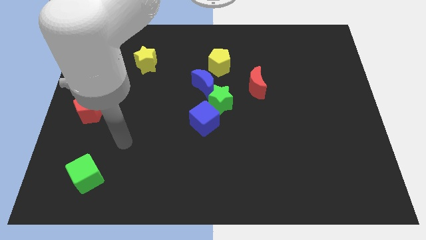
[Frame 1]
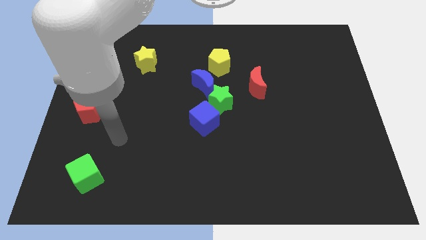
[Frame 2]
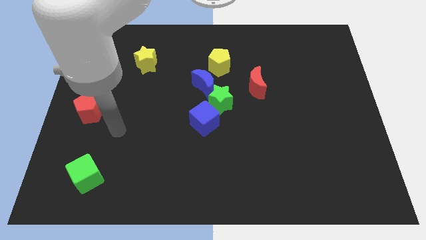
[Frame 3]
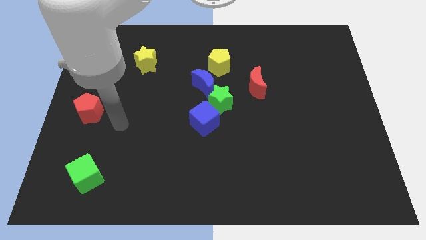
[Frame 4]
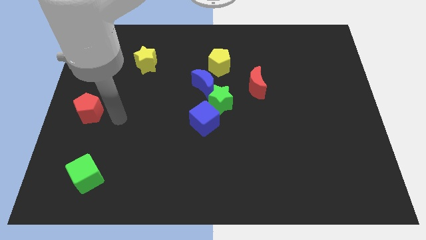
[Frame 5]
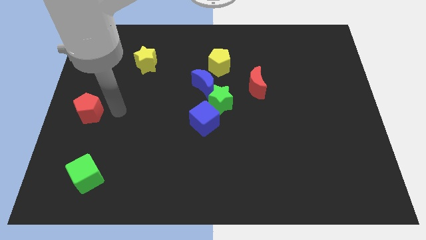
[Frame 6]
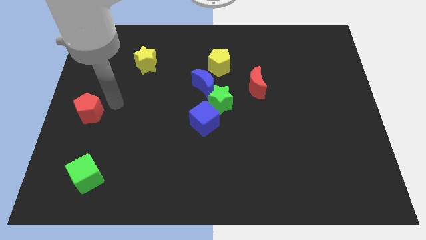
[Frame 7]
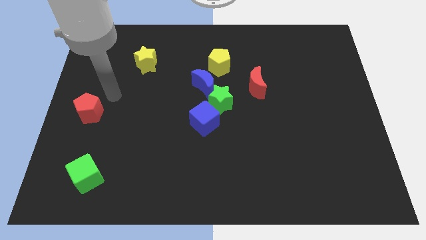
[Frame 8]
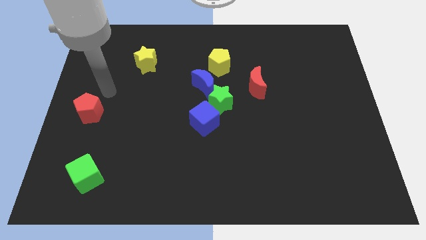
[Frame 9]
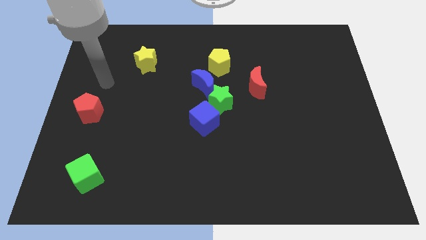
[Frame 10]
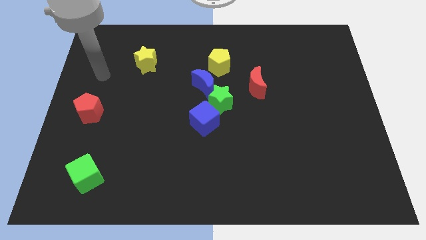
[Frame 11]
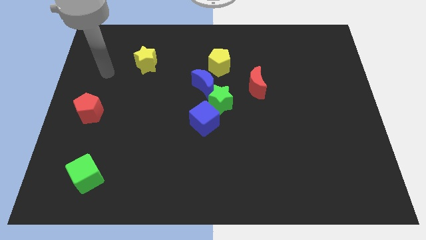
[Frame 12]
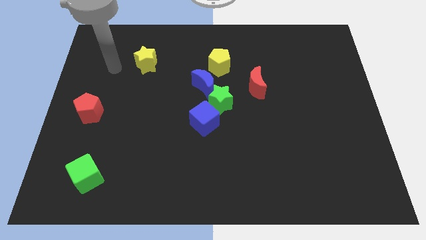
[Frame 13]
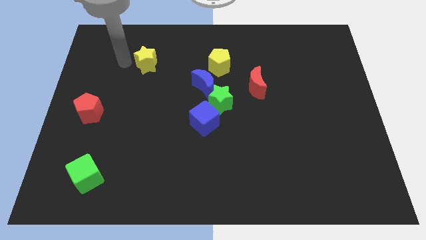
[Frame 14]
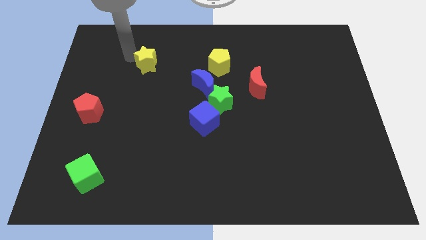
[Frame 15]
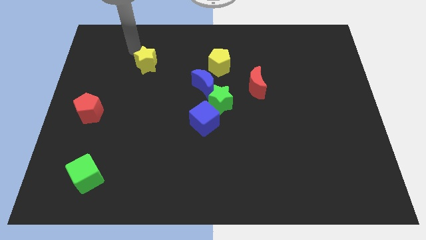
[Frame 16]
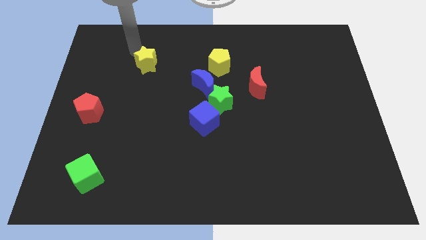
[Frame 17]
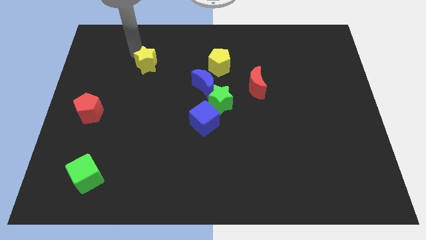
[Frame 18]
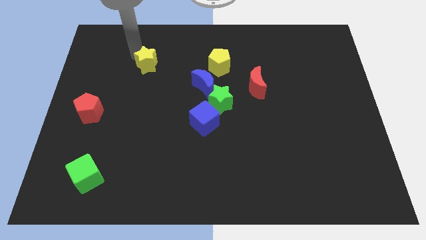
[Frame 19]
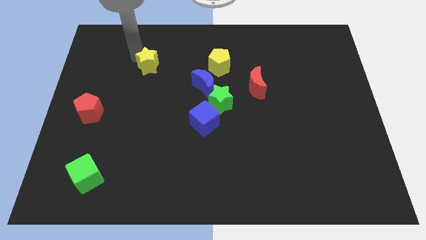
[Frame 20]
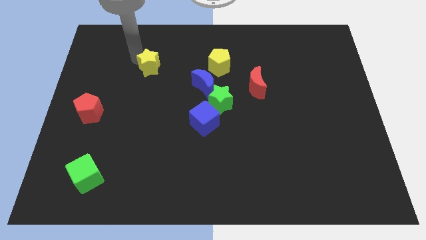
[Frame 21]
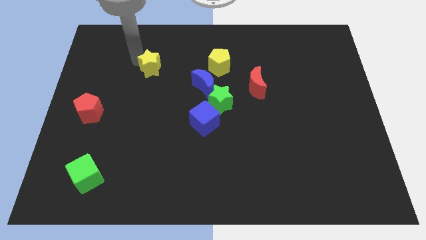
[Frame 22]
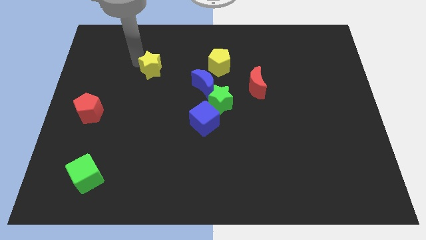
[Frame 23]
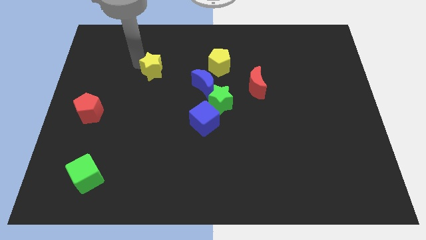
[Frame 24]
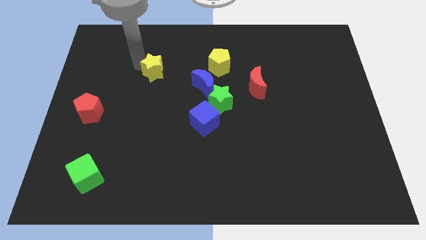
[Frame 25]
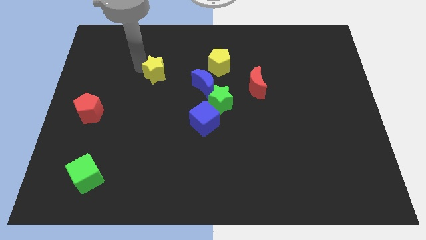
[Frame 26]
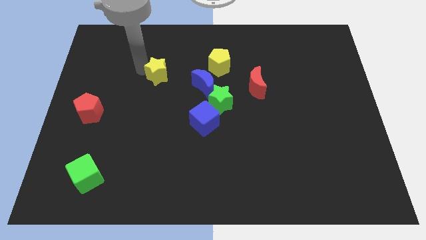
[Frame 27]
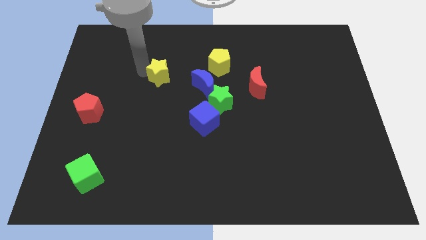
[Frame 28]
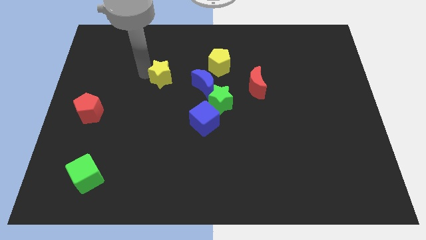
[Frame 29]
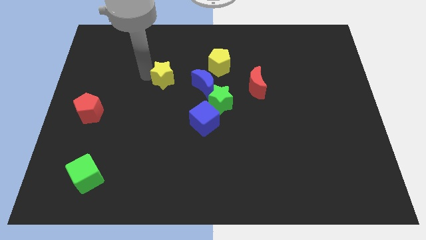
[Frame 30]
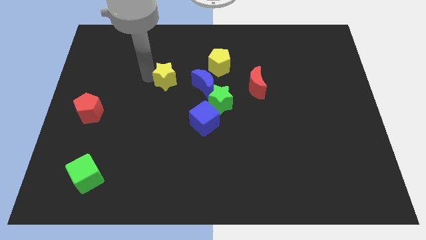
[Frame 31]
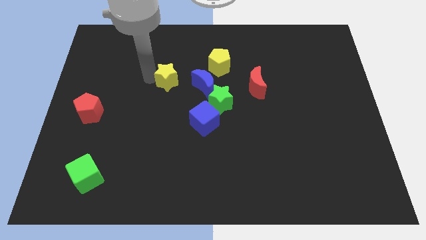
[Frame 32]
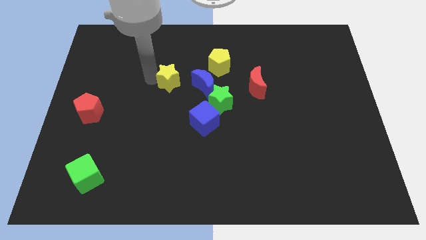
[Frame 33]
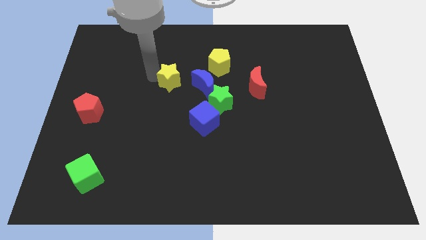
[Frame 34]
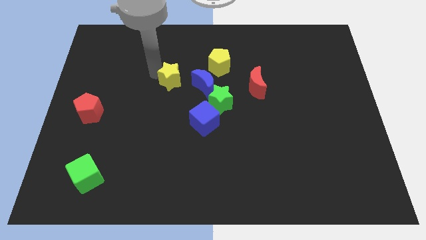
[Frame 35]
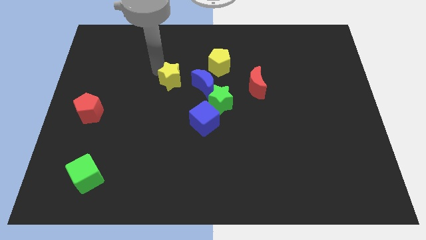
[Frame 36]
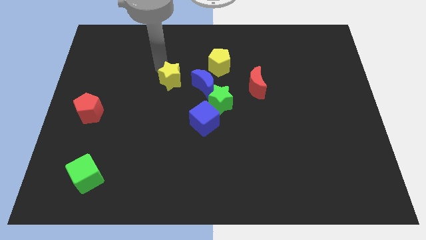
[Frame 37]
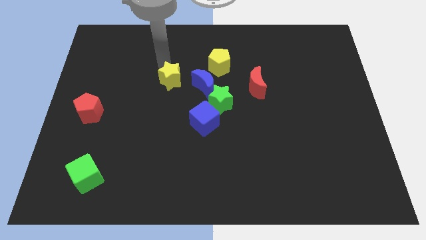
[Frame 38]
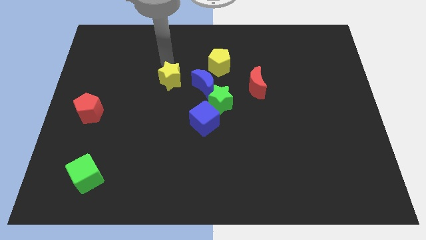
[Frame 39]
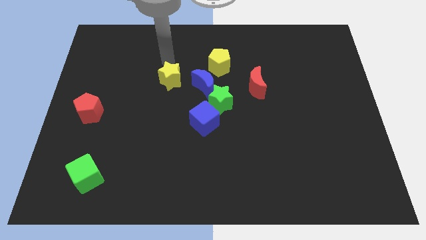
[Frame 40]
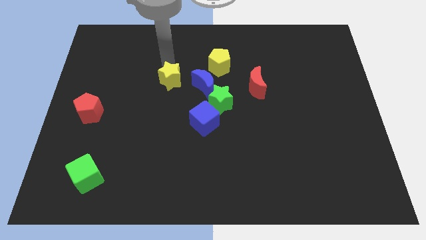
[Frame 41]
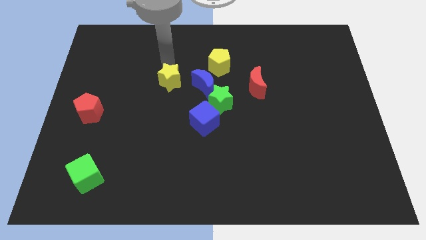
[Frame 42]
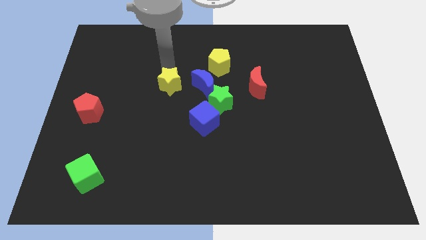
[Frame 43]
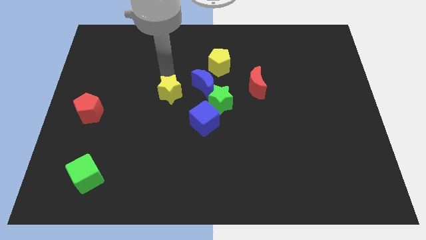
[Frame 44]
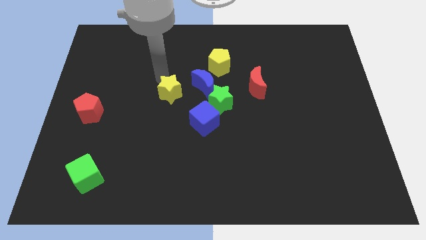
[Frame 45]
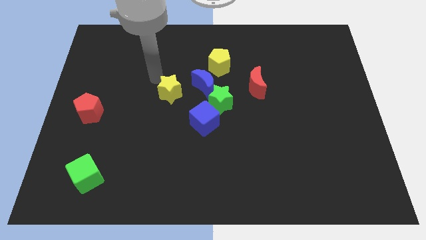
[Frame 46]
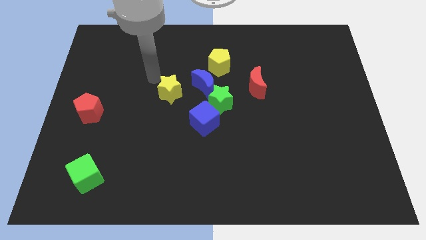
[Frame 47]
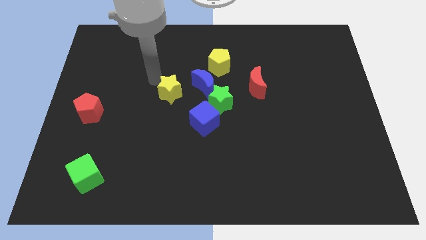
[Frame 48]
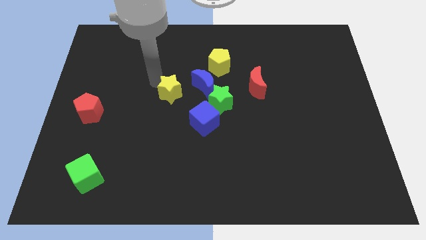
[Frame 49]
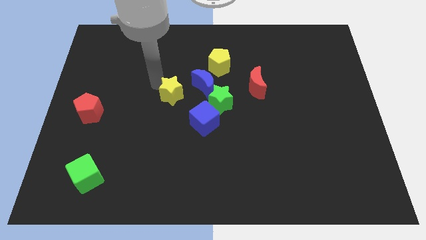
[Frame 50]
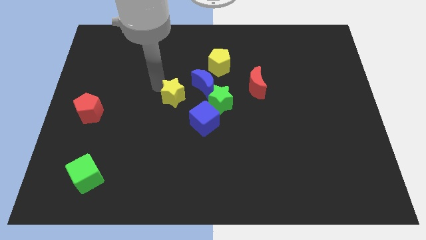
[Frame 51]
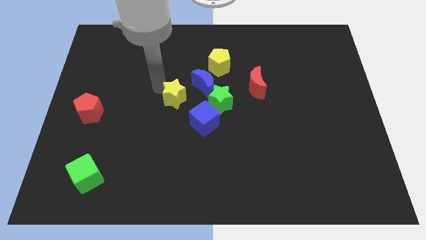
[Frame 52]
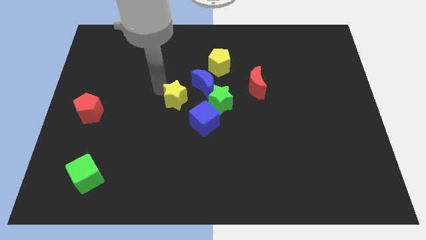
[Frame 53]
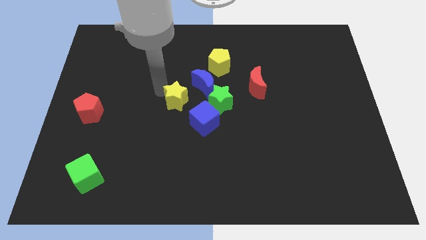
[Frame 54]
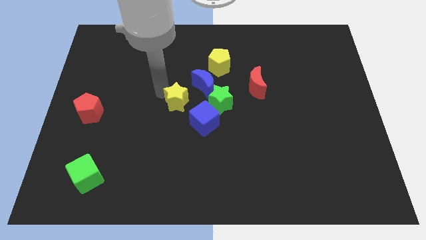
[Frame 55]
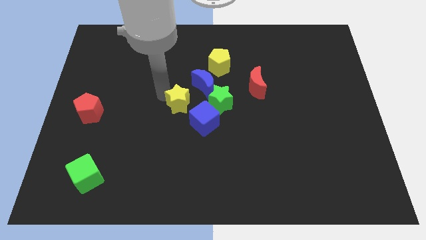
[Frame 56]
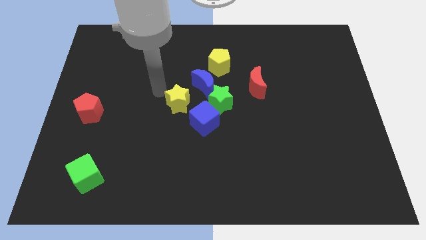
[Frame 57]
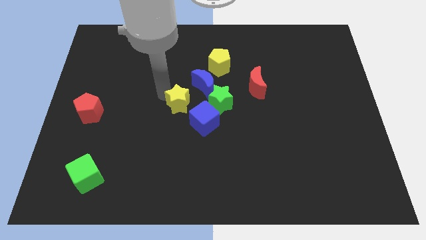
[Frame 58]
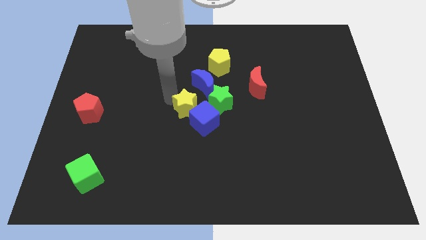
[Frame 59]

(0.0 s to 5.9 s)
move the yellow star to the blue cube
